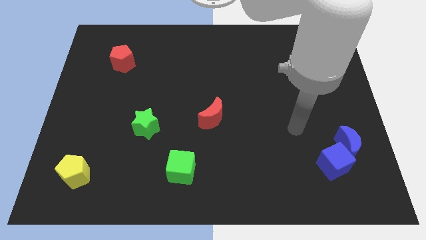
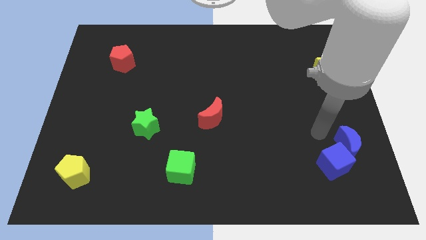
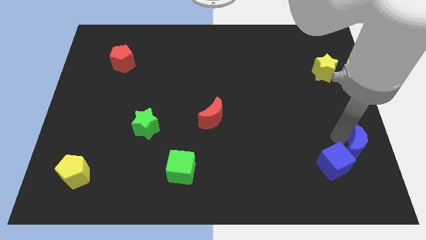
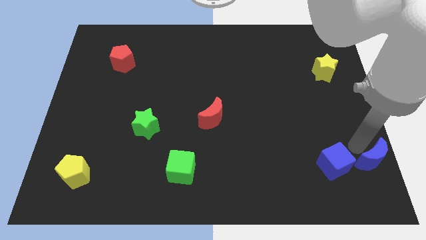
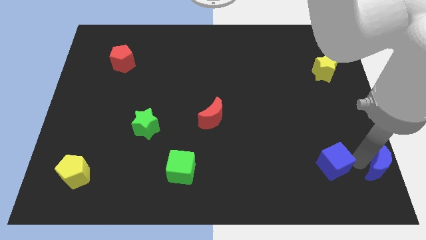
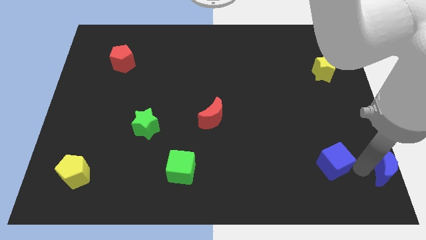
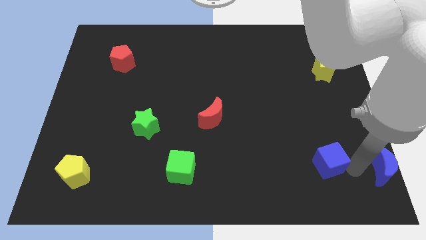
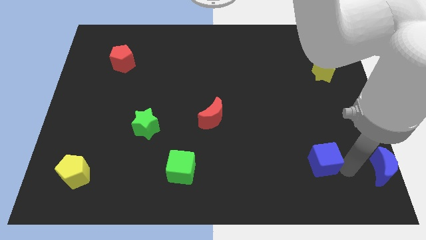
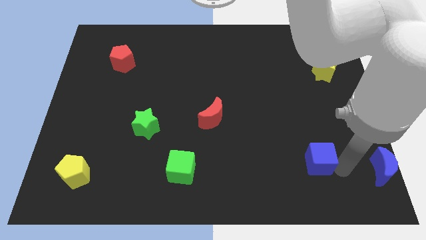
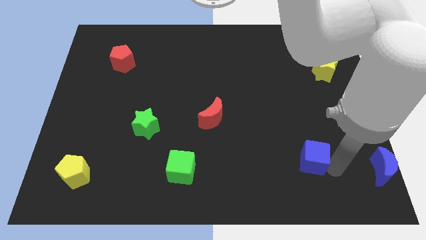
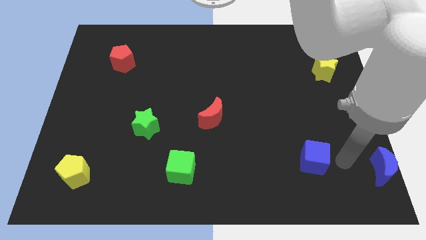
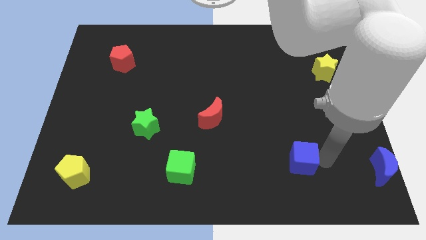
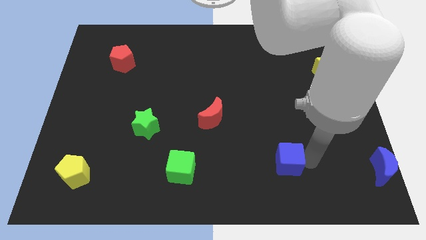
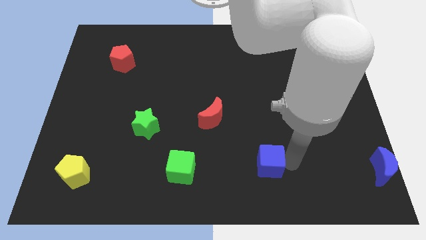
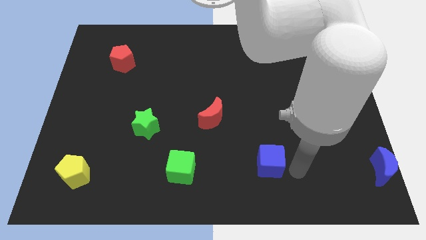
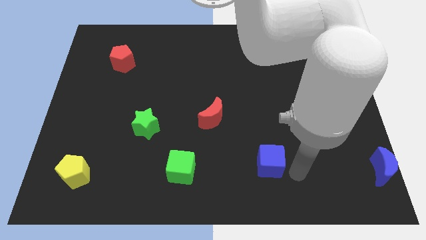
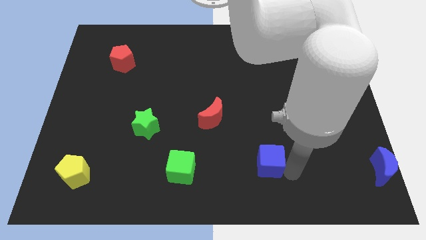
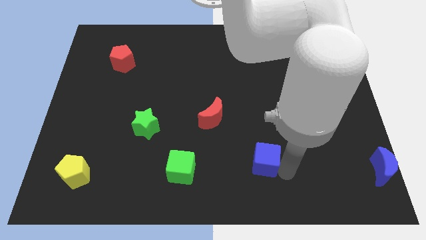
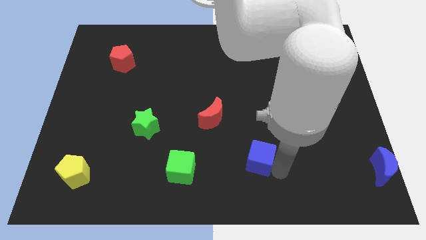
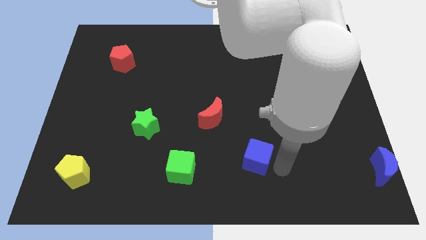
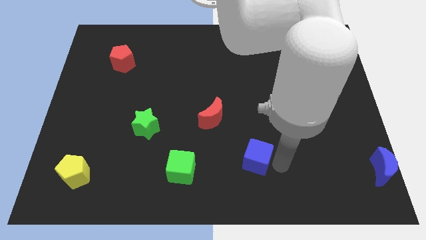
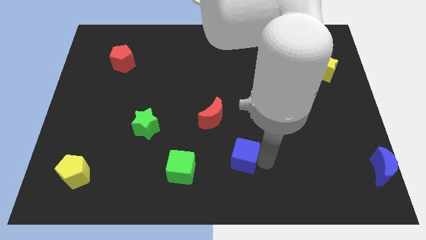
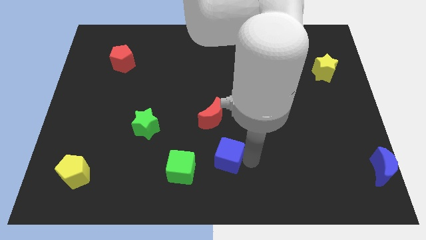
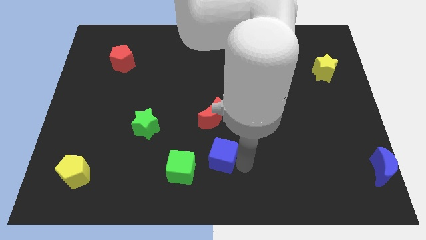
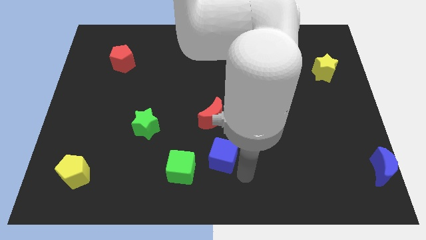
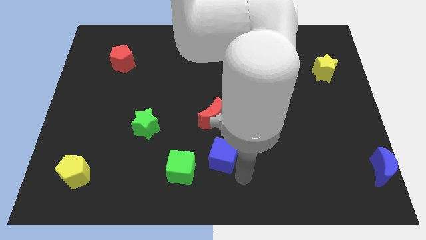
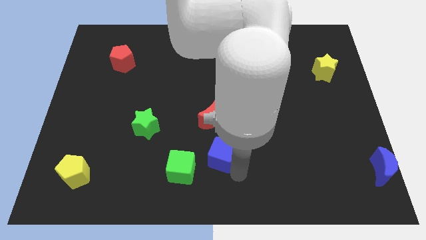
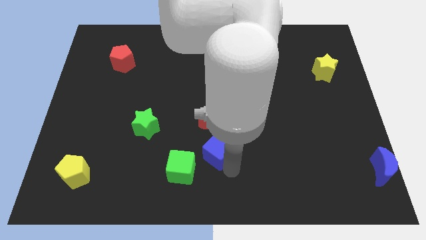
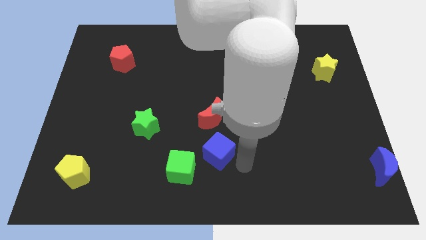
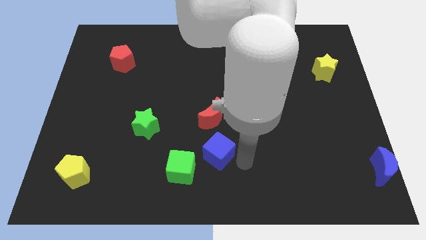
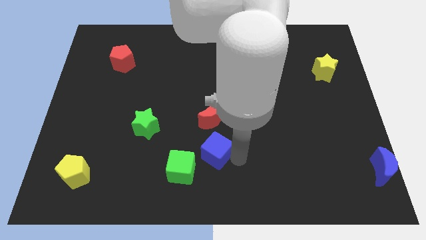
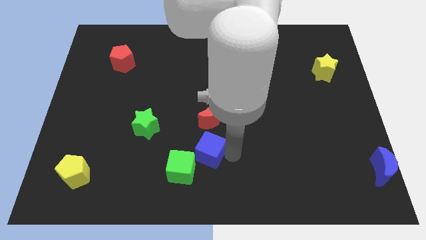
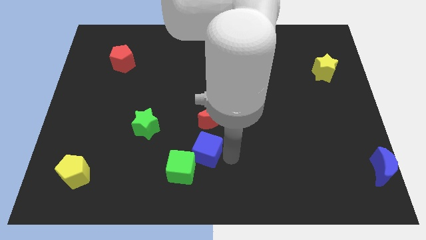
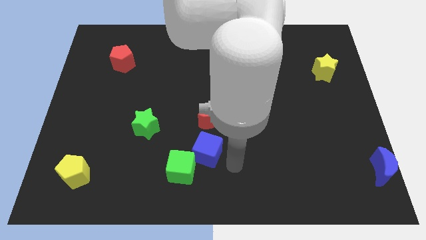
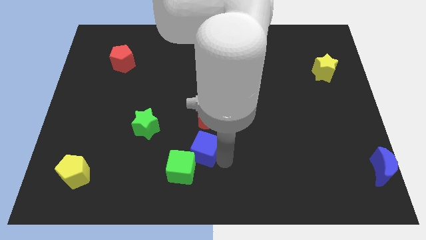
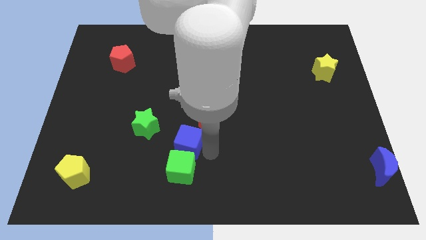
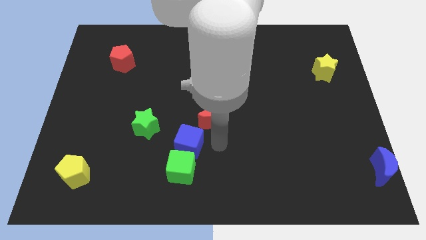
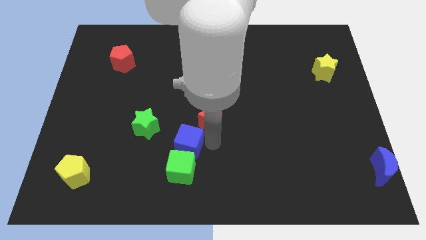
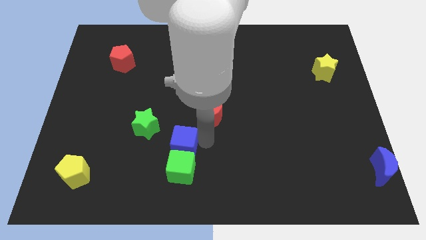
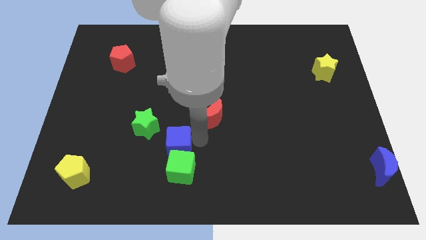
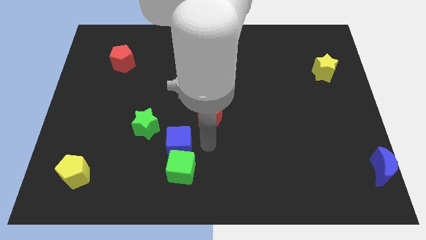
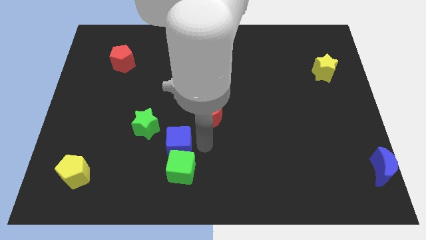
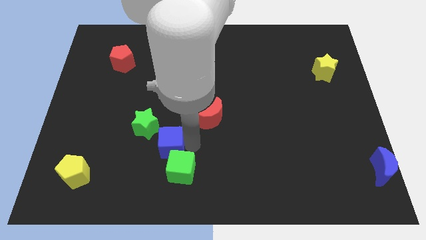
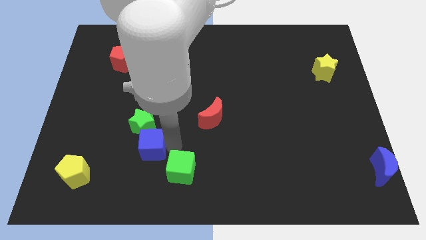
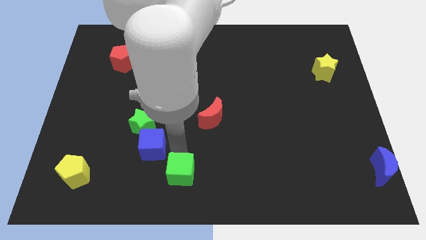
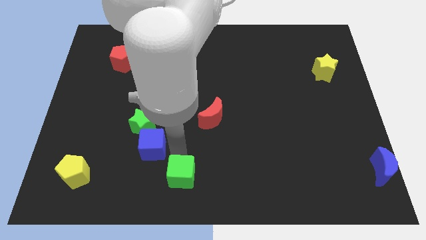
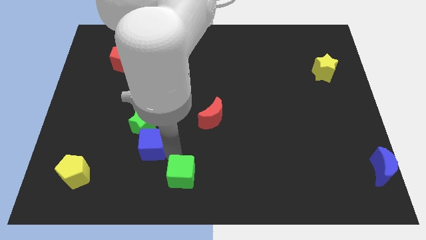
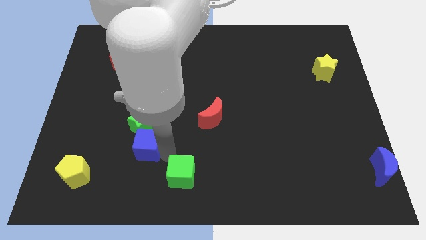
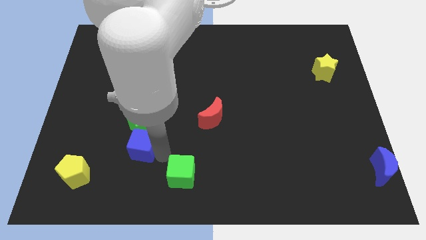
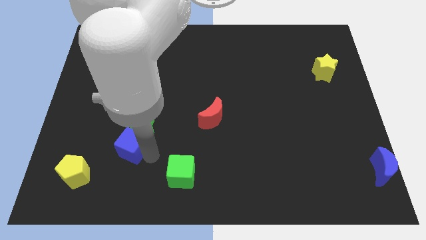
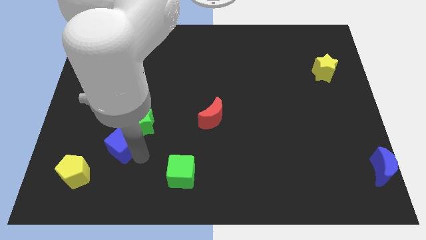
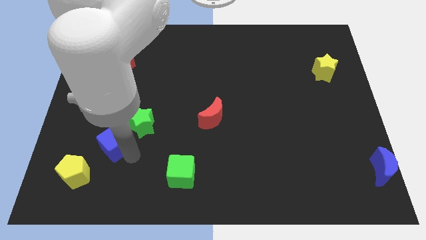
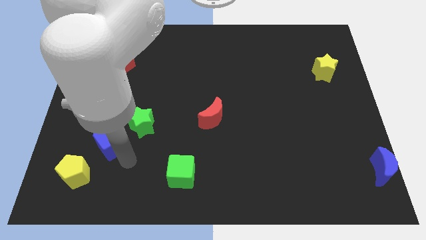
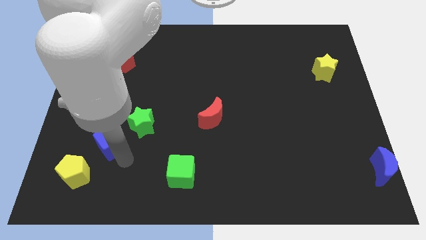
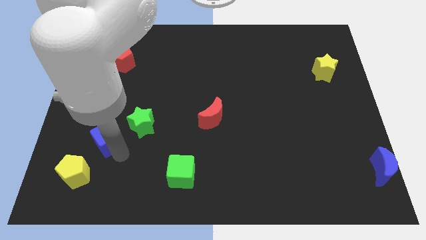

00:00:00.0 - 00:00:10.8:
slide the blue cube to the left side of the green star

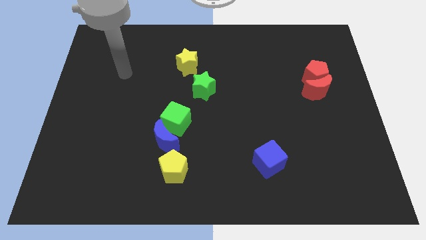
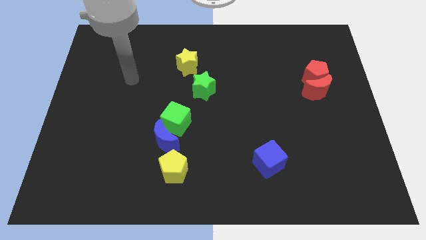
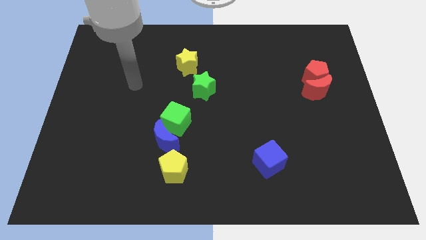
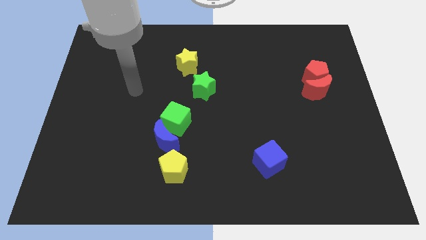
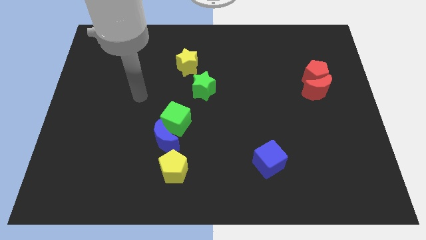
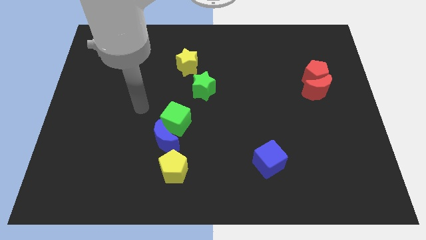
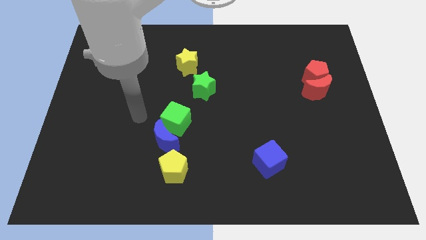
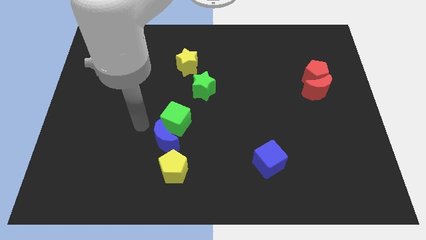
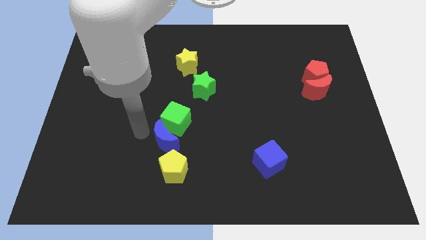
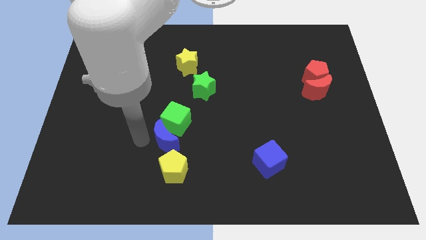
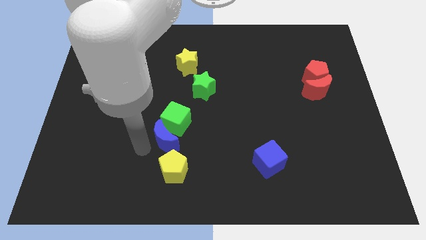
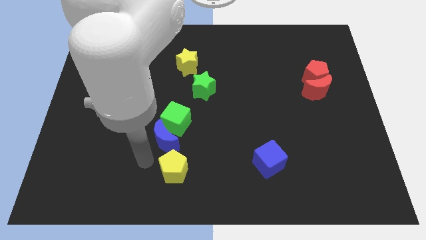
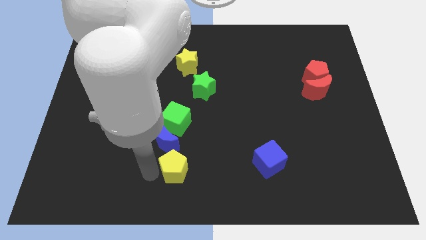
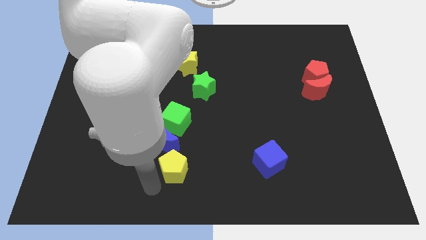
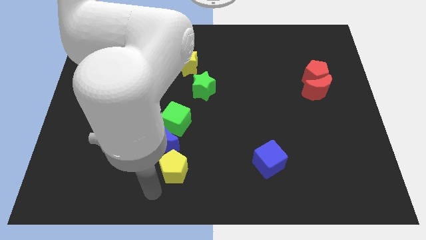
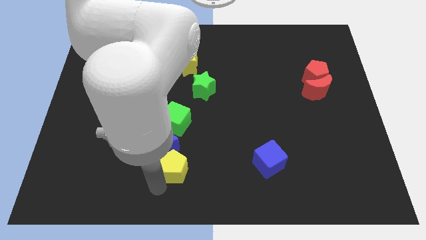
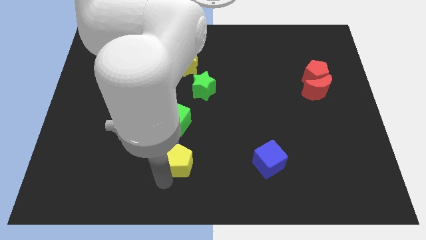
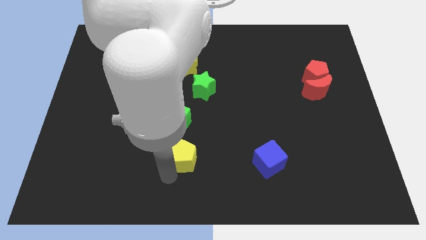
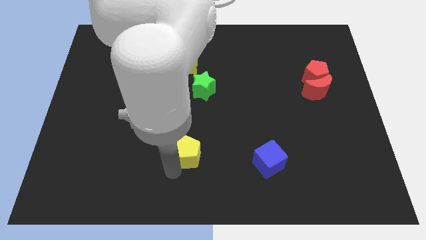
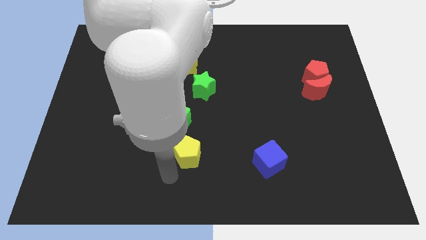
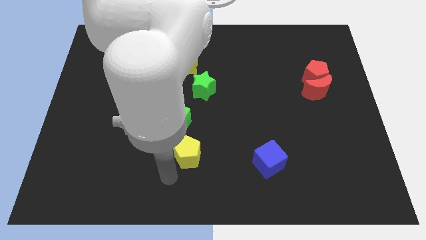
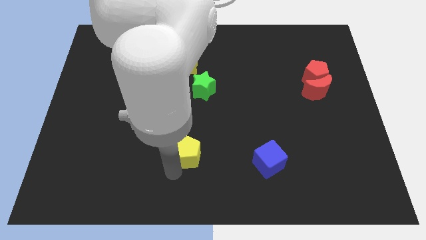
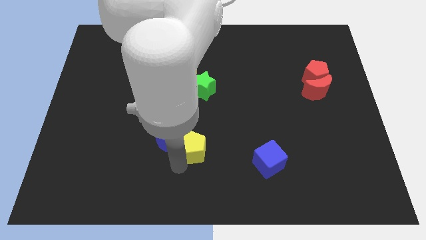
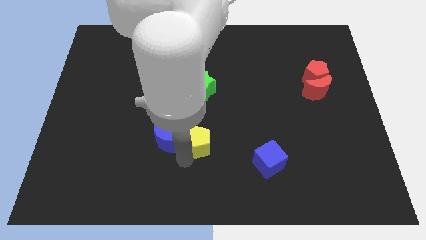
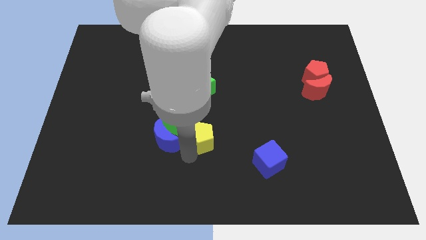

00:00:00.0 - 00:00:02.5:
slide the yellow pentagon just right of the green cube

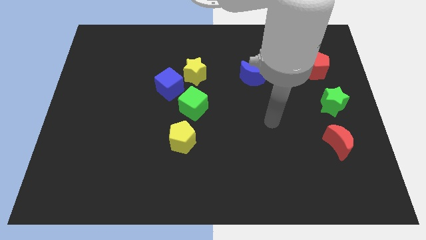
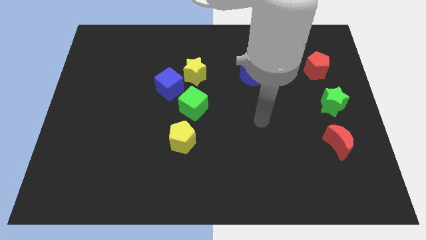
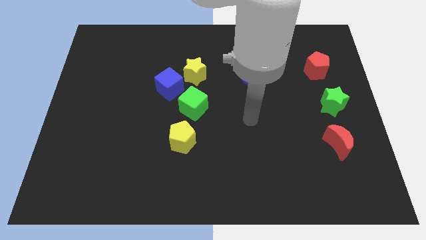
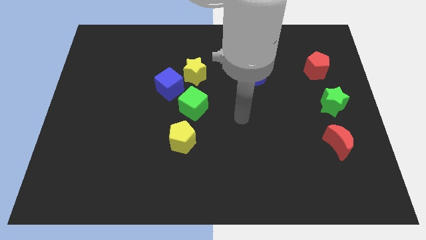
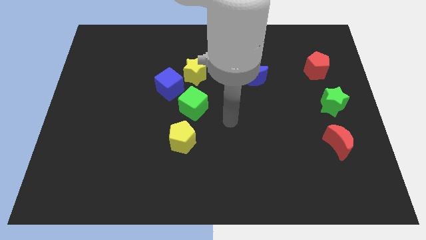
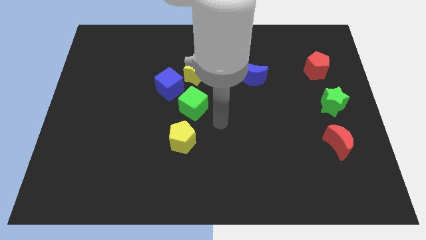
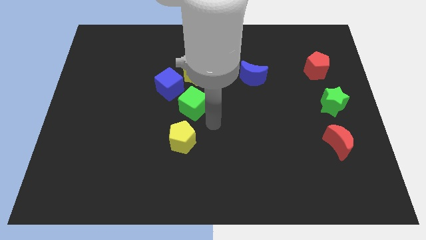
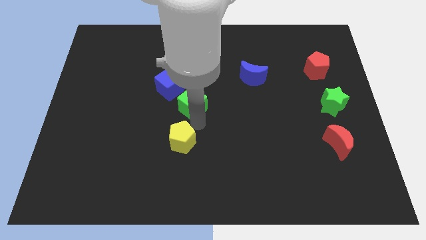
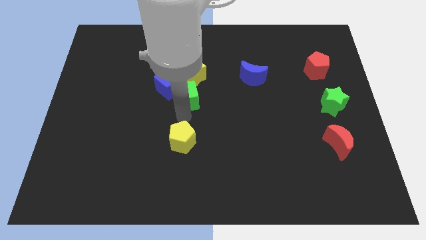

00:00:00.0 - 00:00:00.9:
put the blue cube to the top side of the green cube
